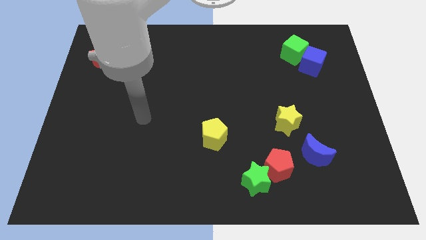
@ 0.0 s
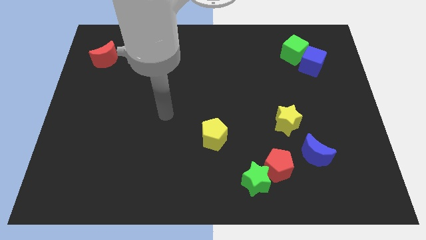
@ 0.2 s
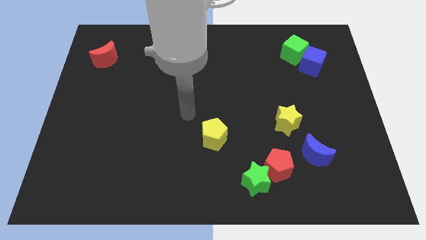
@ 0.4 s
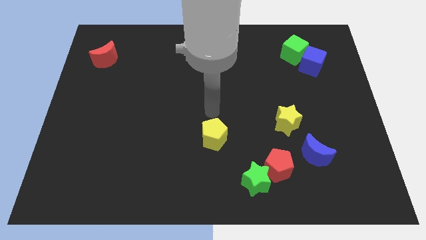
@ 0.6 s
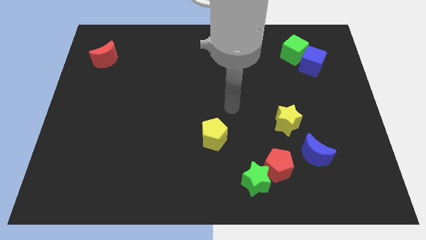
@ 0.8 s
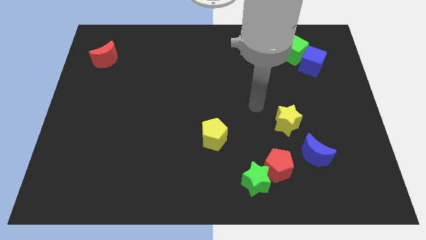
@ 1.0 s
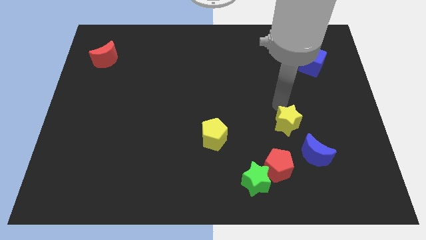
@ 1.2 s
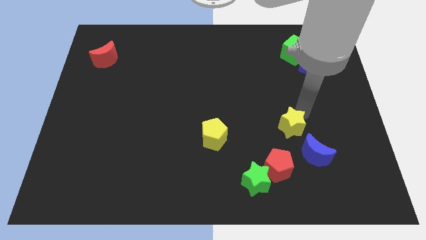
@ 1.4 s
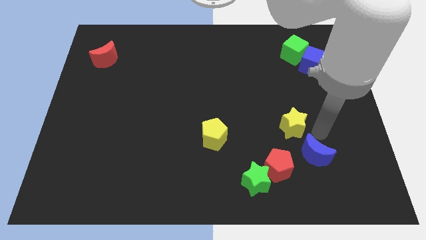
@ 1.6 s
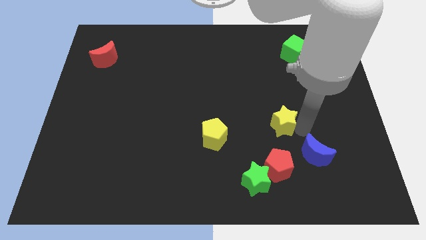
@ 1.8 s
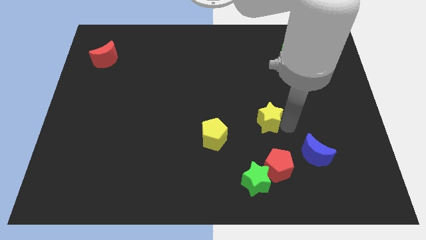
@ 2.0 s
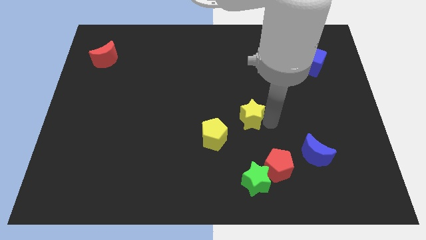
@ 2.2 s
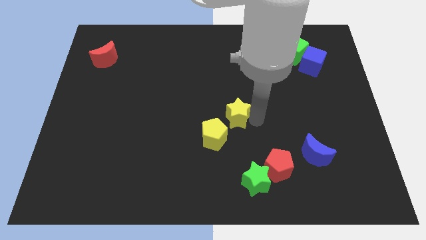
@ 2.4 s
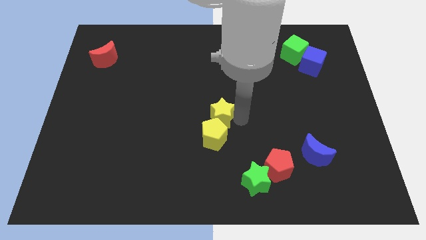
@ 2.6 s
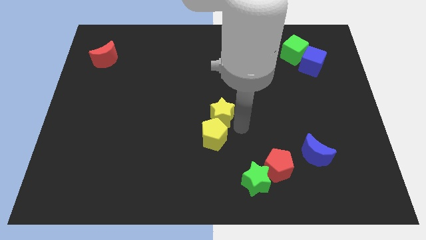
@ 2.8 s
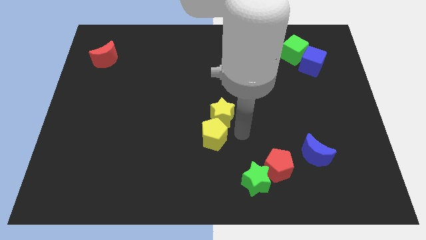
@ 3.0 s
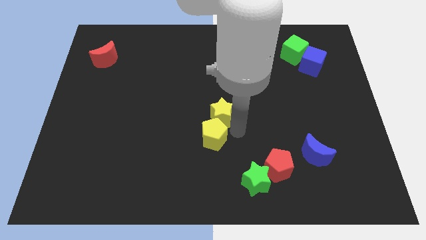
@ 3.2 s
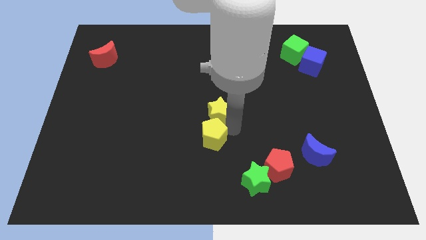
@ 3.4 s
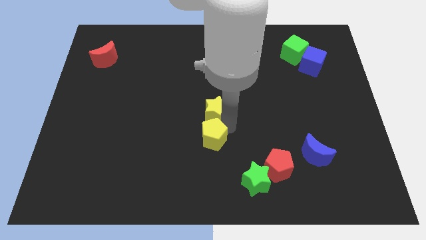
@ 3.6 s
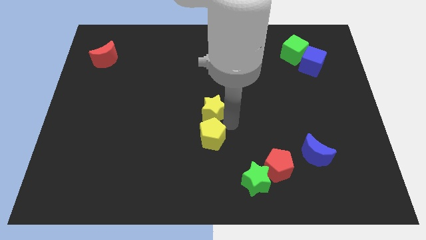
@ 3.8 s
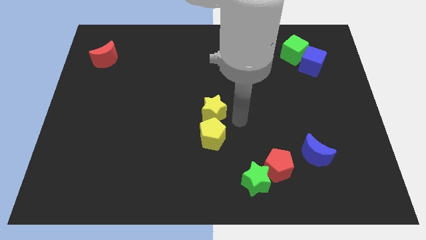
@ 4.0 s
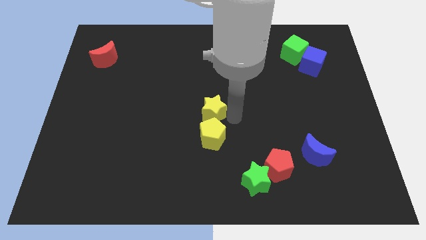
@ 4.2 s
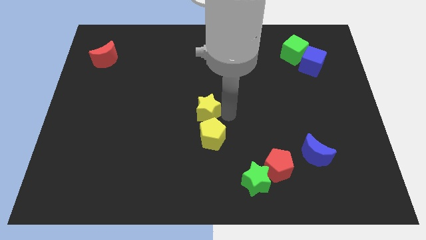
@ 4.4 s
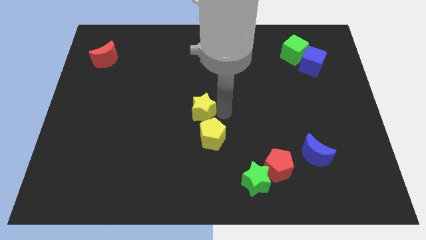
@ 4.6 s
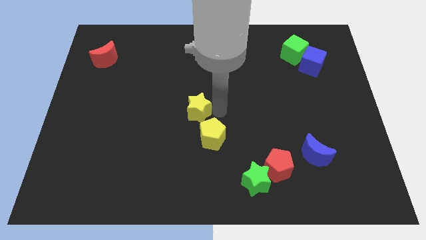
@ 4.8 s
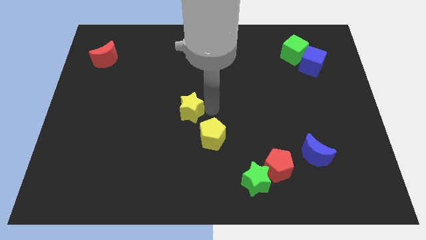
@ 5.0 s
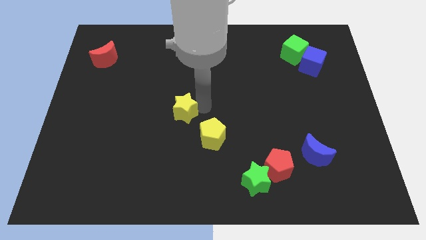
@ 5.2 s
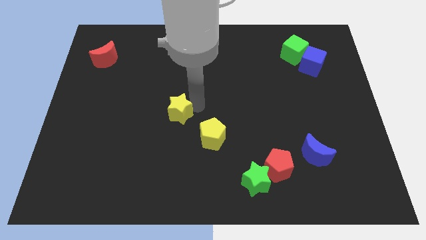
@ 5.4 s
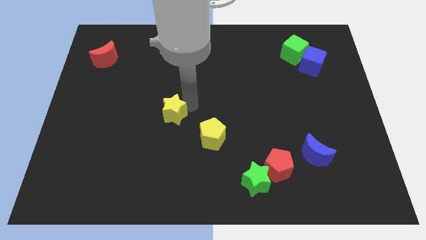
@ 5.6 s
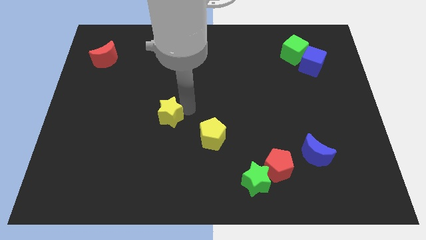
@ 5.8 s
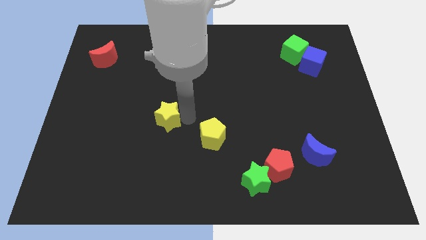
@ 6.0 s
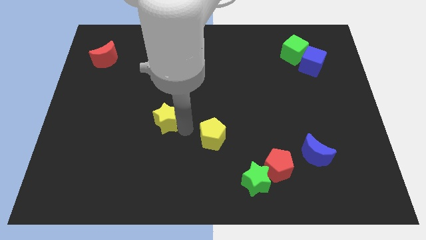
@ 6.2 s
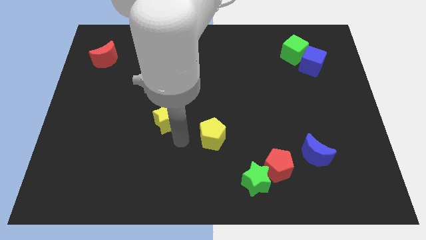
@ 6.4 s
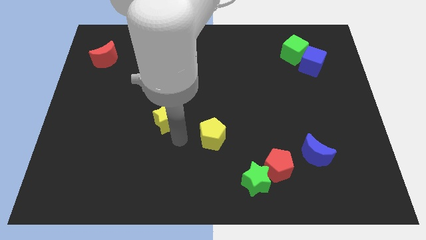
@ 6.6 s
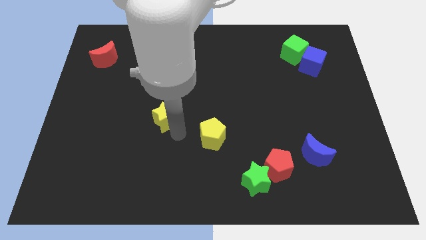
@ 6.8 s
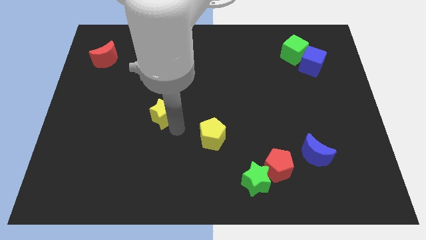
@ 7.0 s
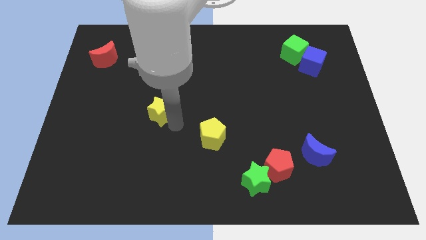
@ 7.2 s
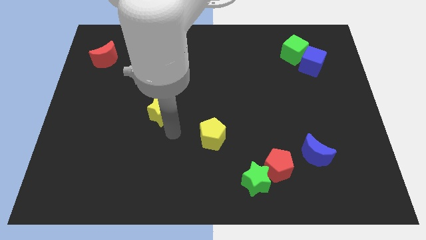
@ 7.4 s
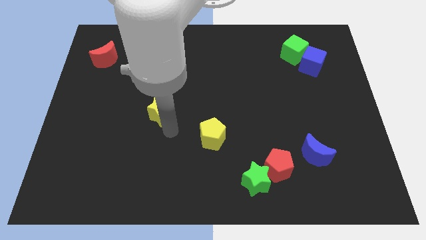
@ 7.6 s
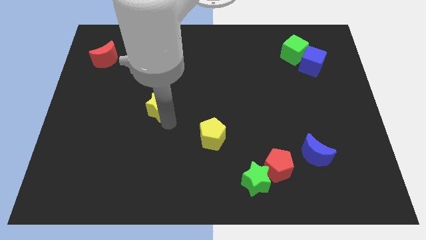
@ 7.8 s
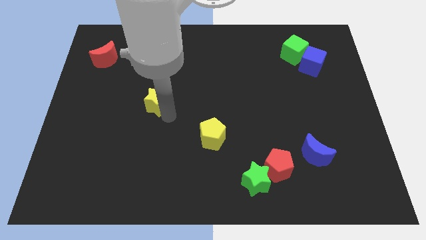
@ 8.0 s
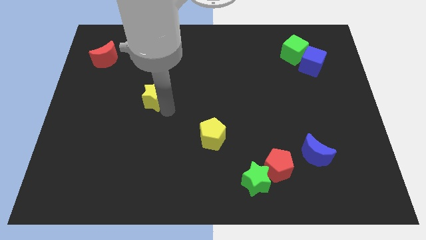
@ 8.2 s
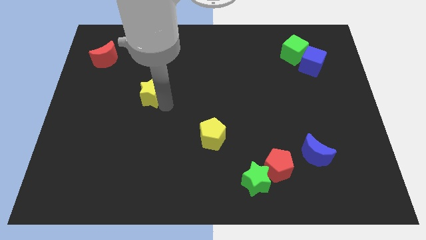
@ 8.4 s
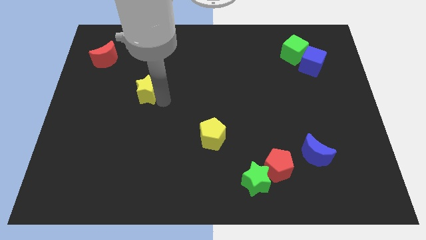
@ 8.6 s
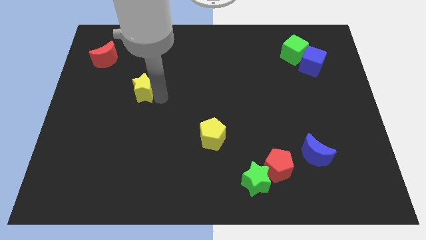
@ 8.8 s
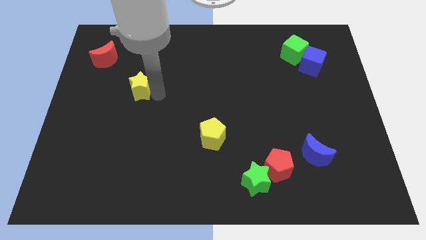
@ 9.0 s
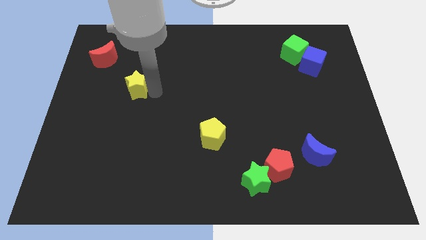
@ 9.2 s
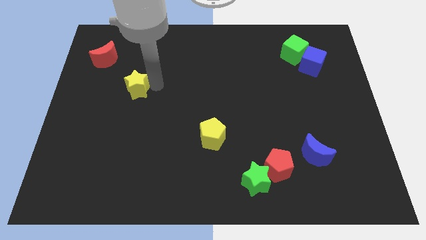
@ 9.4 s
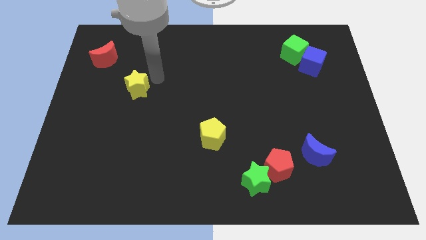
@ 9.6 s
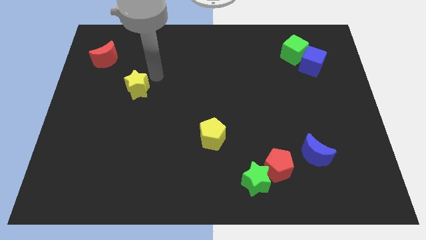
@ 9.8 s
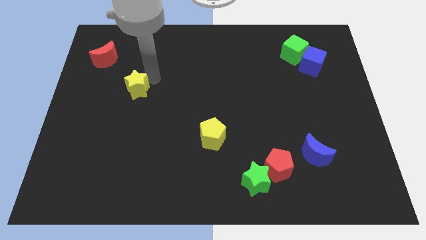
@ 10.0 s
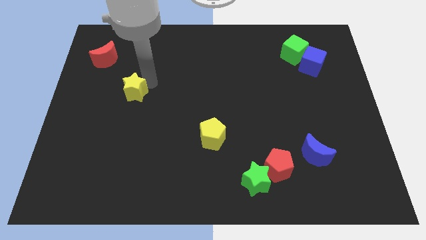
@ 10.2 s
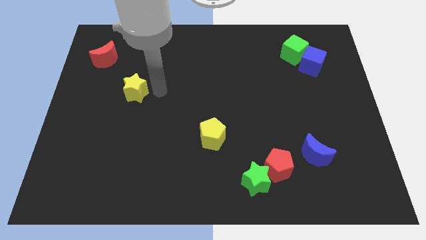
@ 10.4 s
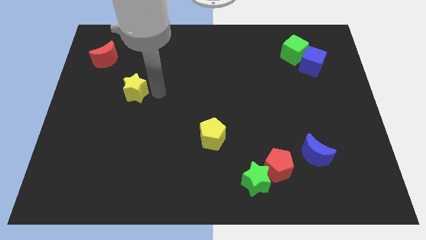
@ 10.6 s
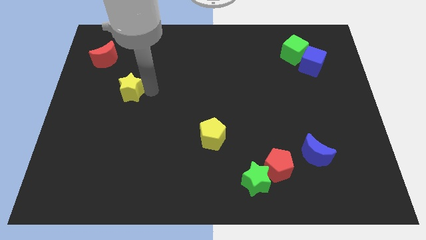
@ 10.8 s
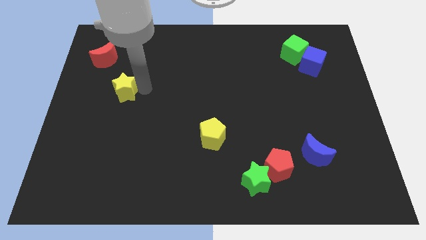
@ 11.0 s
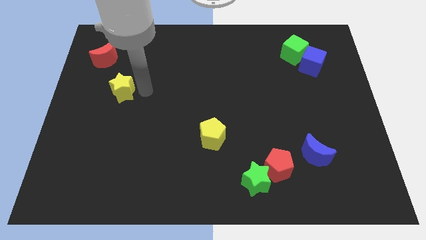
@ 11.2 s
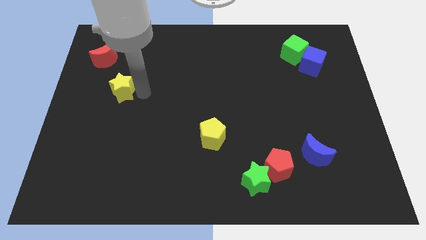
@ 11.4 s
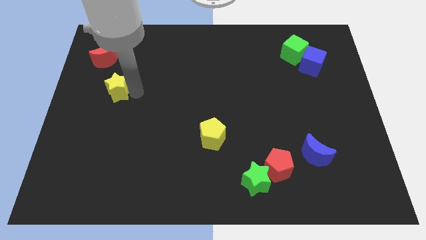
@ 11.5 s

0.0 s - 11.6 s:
slide the yellow star to the bottom side of the red moon

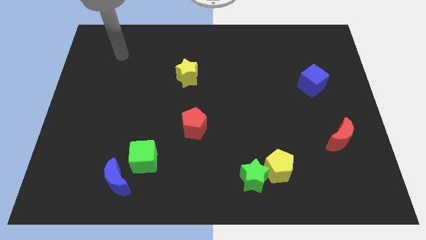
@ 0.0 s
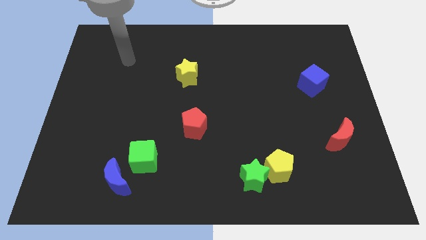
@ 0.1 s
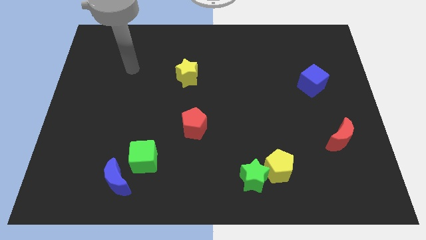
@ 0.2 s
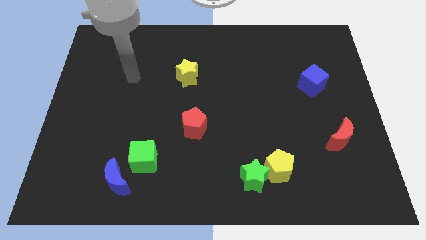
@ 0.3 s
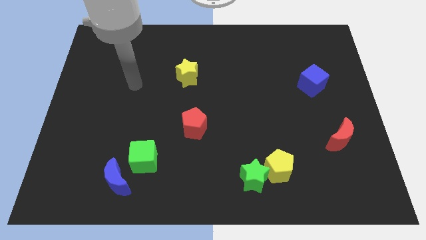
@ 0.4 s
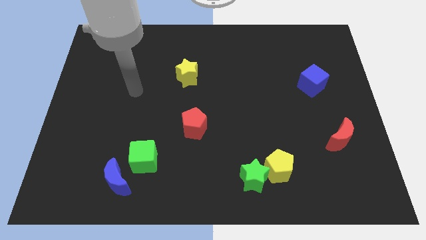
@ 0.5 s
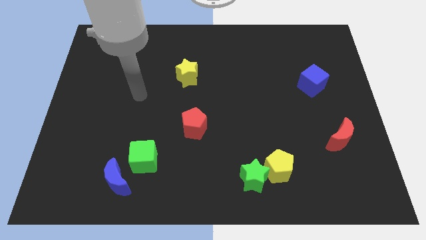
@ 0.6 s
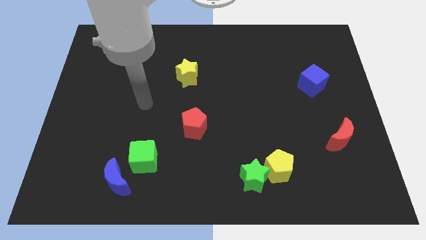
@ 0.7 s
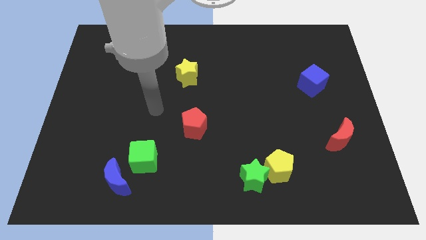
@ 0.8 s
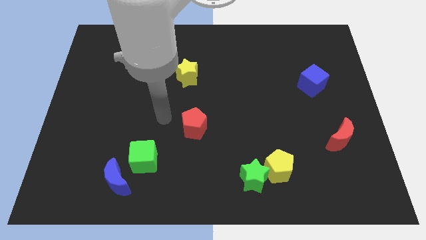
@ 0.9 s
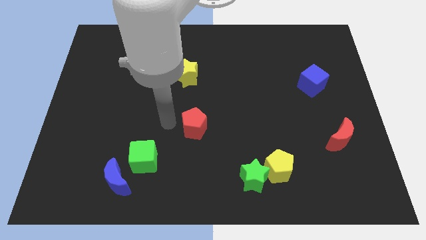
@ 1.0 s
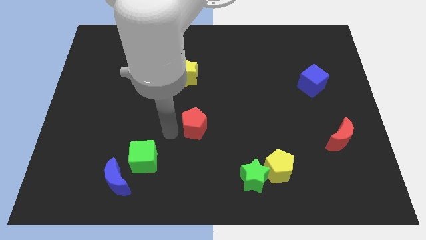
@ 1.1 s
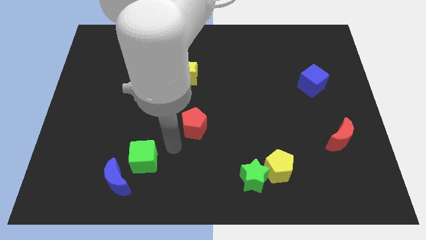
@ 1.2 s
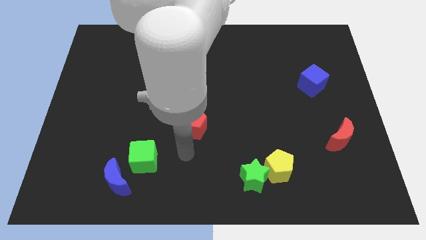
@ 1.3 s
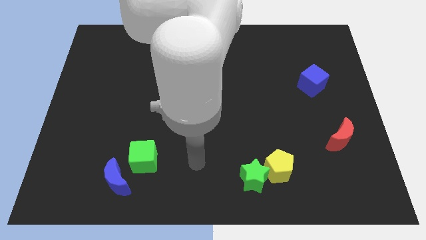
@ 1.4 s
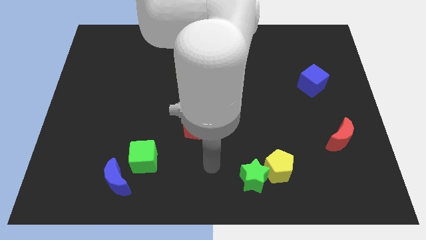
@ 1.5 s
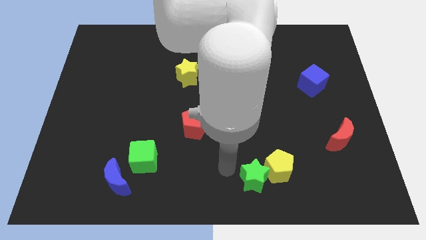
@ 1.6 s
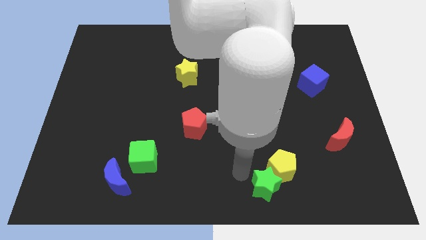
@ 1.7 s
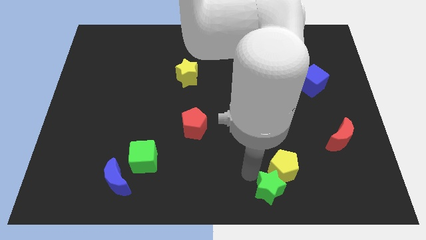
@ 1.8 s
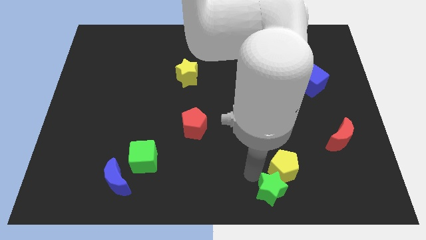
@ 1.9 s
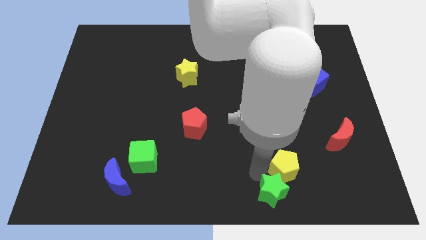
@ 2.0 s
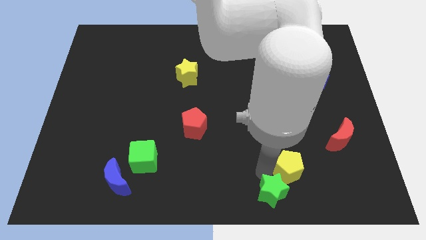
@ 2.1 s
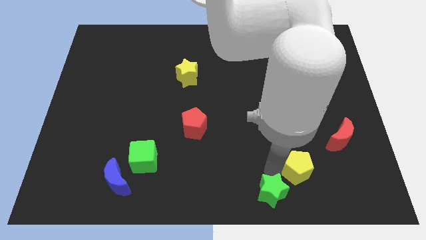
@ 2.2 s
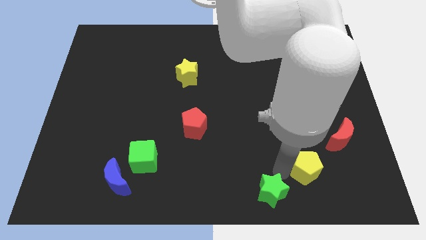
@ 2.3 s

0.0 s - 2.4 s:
put the yellow pentagon to the bottom left side of the red moon
